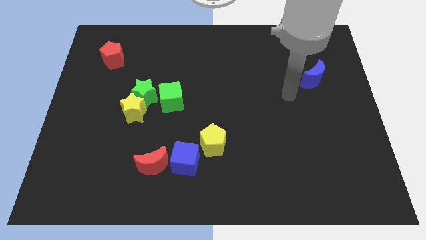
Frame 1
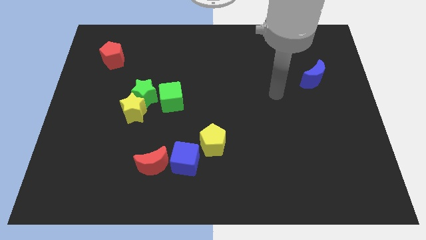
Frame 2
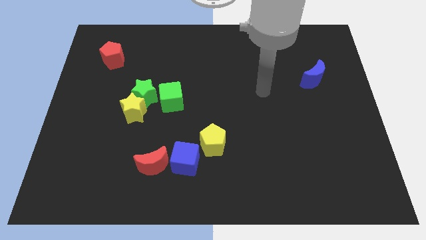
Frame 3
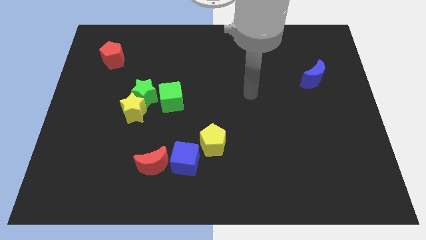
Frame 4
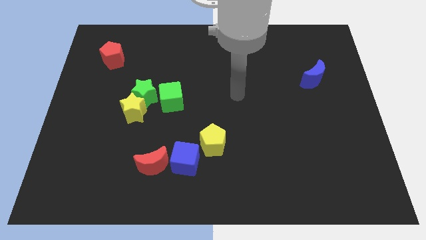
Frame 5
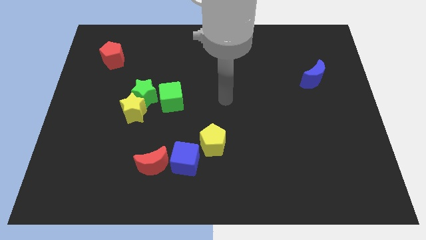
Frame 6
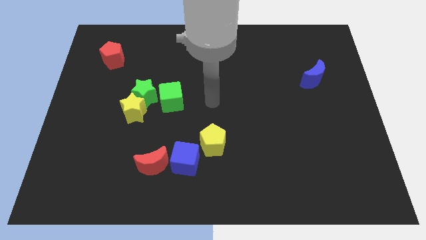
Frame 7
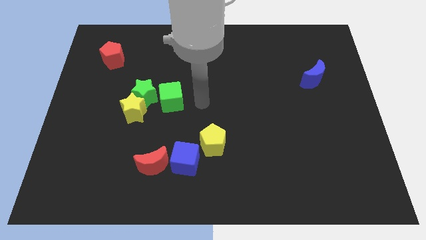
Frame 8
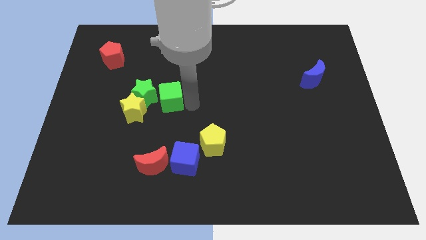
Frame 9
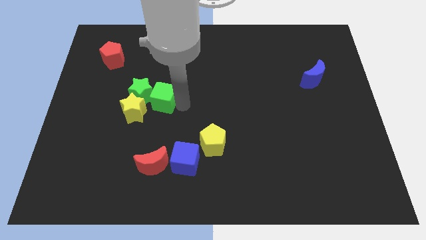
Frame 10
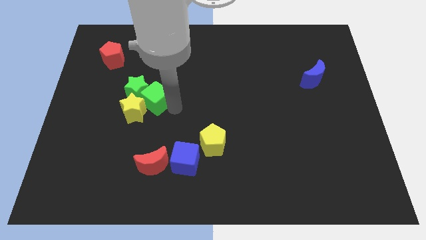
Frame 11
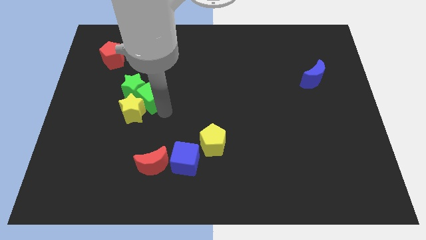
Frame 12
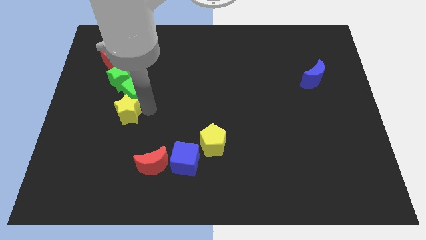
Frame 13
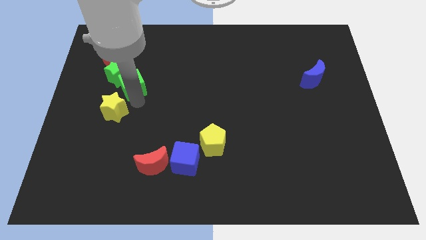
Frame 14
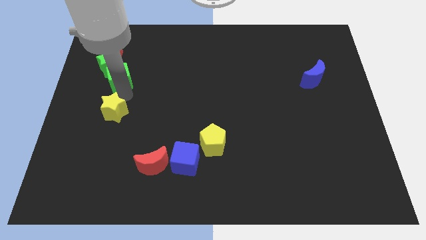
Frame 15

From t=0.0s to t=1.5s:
move the green star away from the yellow star and green cube

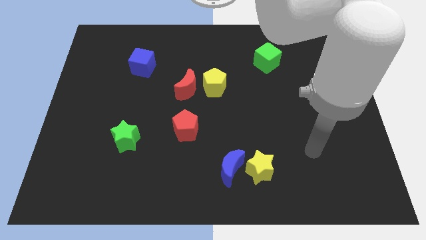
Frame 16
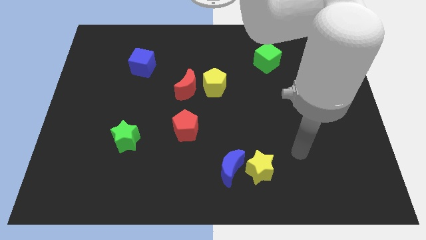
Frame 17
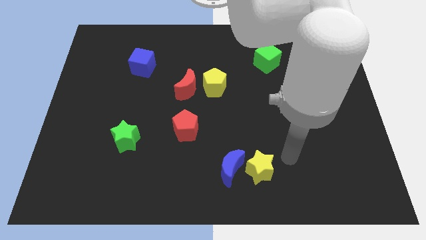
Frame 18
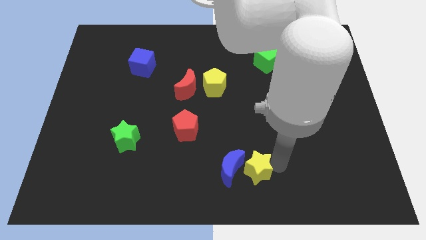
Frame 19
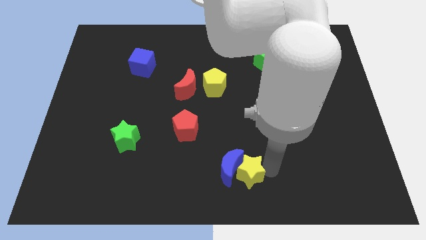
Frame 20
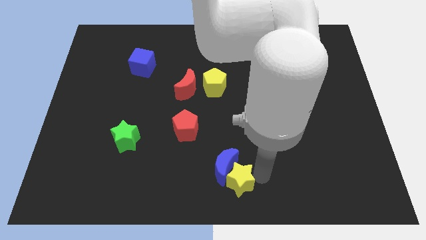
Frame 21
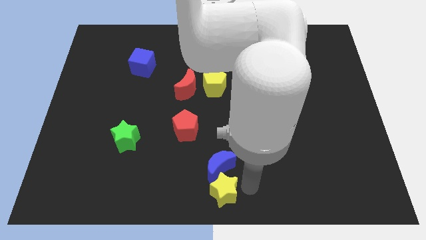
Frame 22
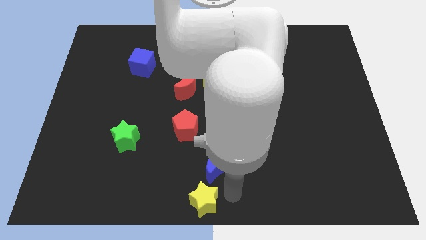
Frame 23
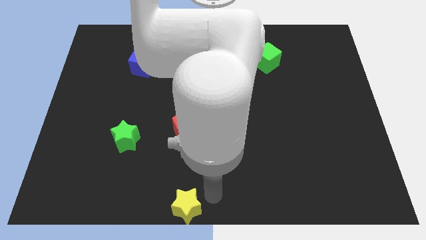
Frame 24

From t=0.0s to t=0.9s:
pull the blue moon apart from the yellow star

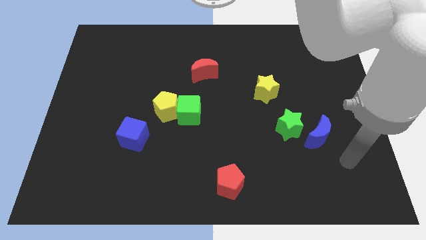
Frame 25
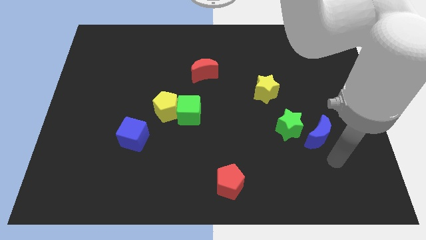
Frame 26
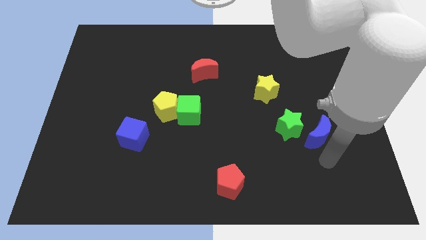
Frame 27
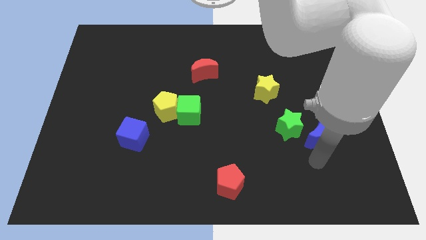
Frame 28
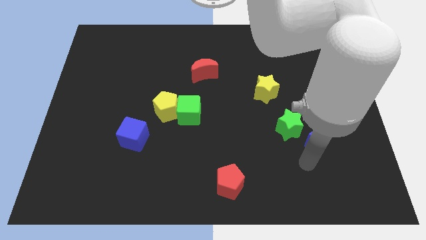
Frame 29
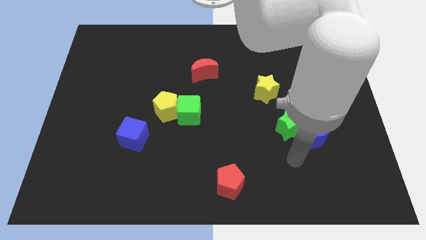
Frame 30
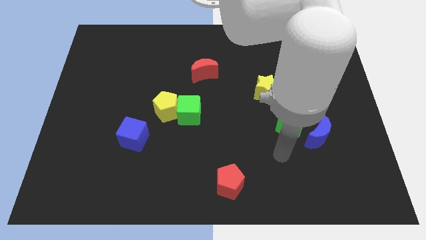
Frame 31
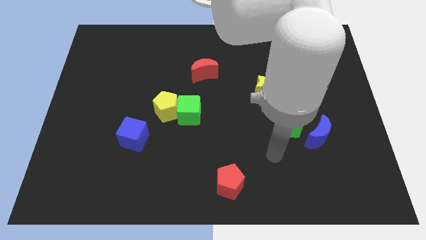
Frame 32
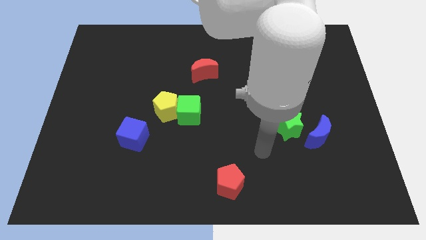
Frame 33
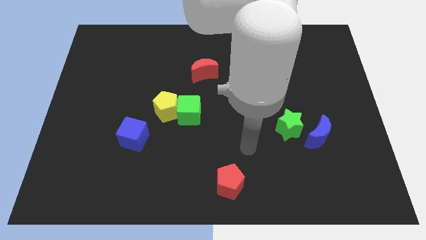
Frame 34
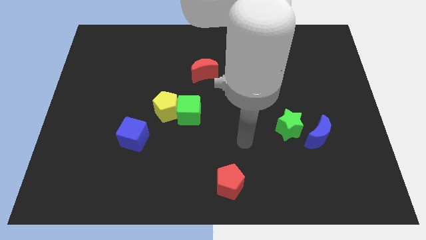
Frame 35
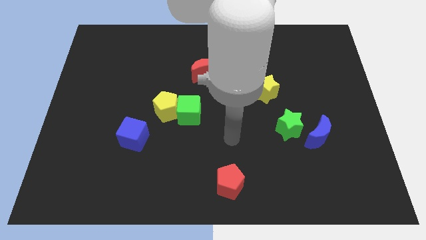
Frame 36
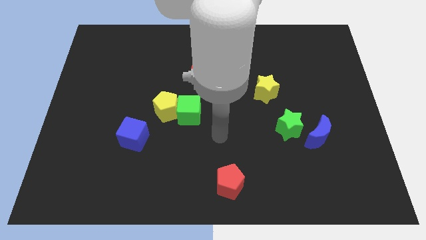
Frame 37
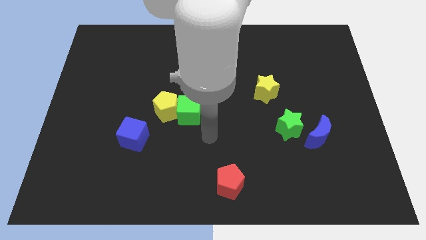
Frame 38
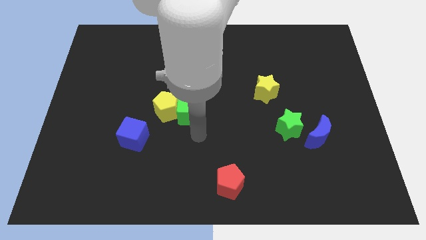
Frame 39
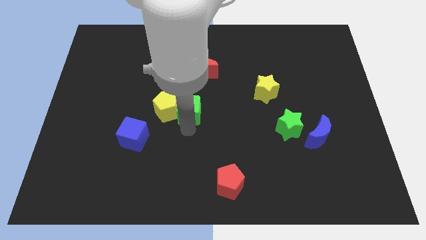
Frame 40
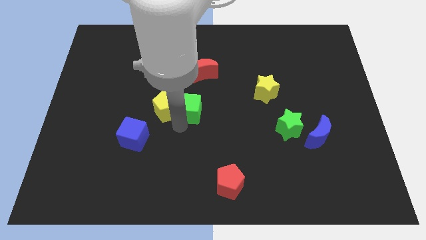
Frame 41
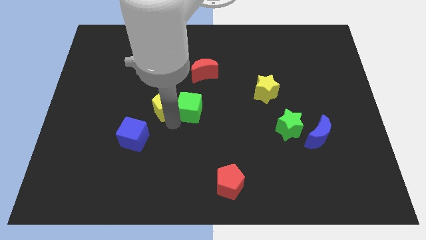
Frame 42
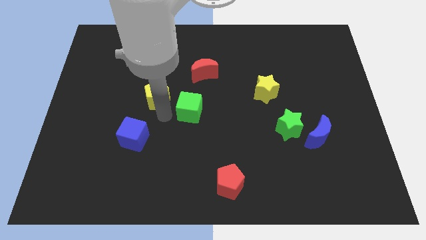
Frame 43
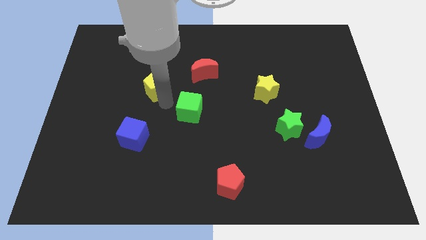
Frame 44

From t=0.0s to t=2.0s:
separate the green cube from the yellow pentagon

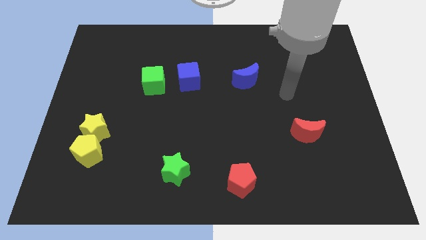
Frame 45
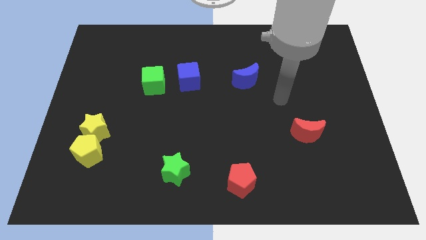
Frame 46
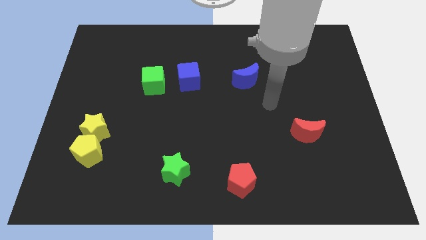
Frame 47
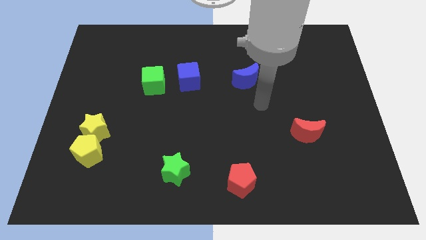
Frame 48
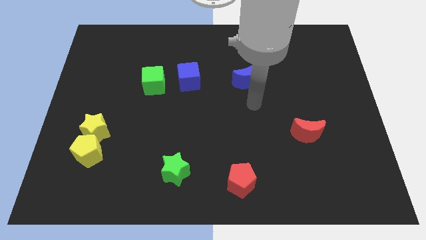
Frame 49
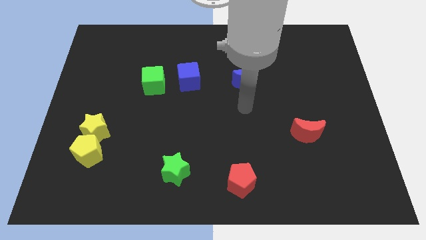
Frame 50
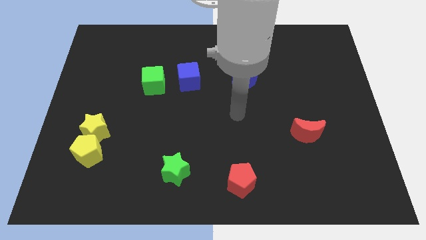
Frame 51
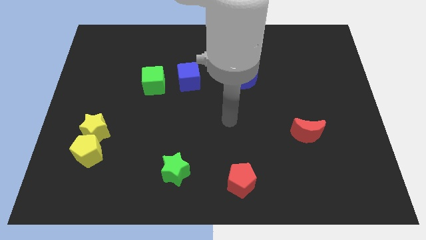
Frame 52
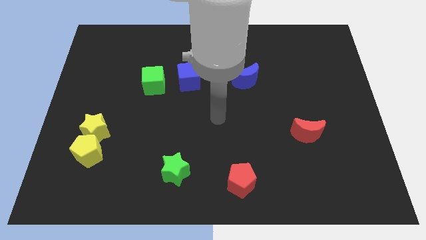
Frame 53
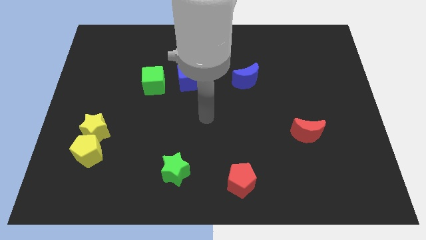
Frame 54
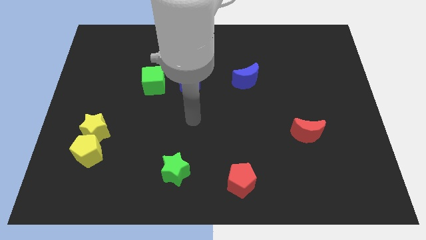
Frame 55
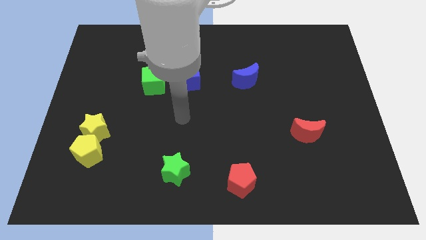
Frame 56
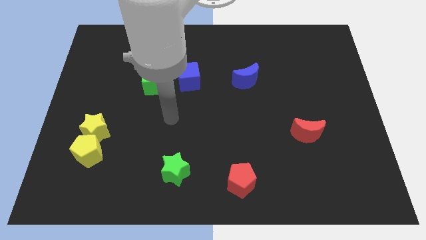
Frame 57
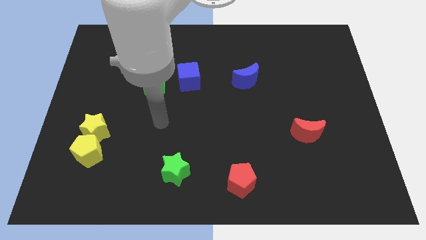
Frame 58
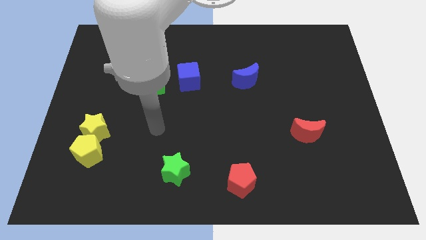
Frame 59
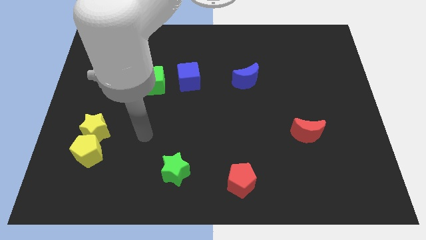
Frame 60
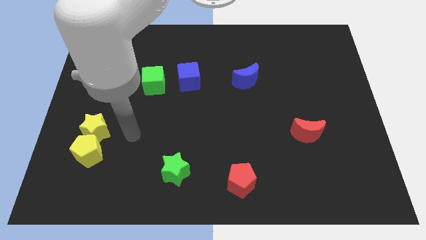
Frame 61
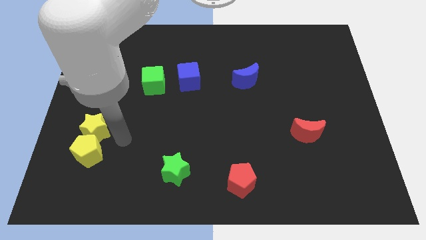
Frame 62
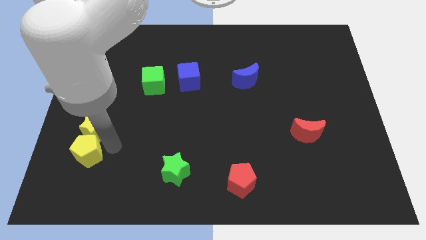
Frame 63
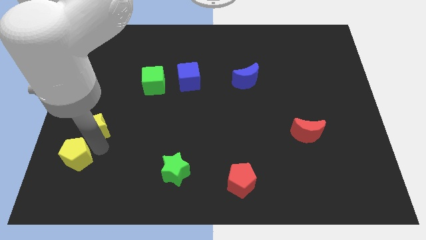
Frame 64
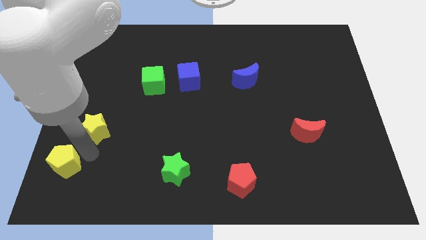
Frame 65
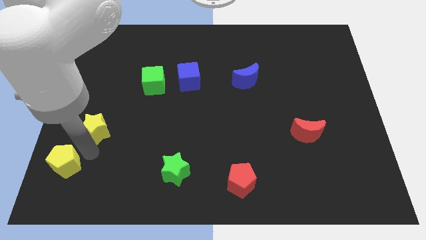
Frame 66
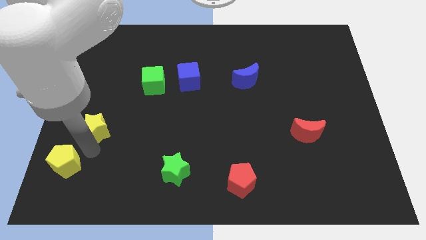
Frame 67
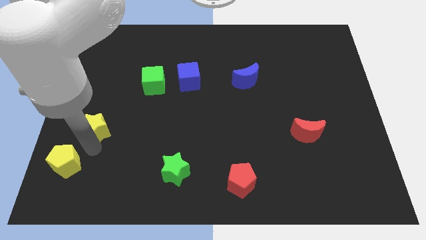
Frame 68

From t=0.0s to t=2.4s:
pull the yellow star apart from the yellow pentagon

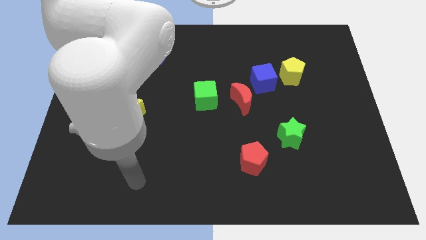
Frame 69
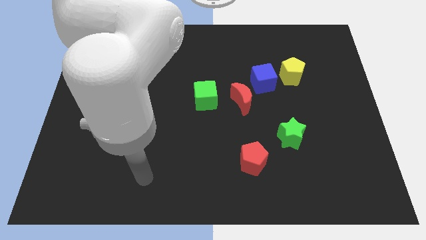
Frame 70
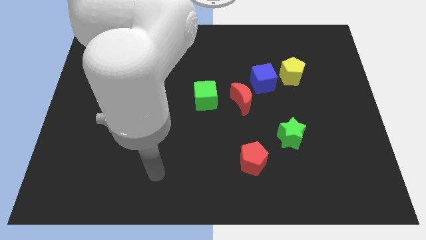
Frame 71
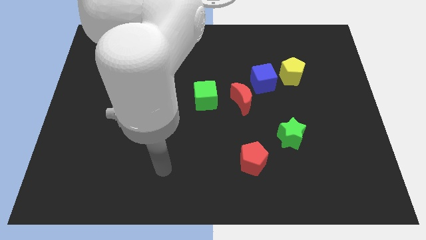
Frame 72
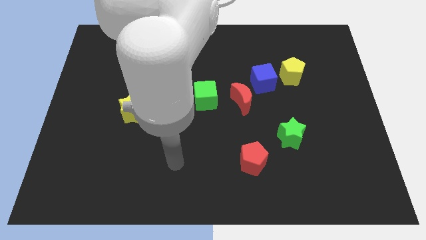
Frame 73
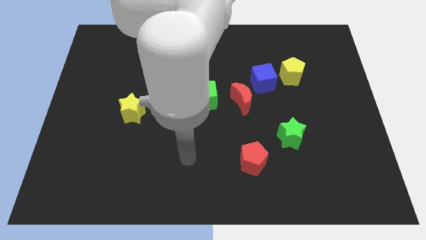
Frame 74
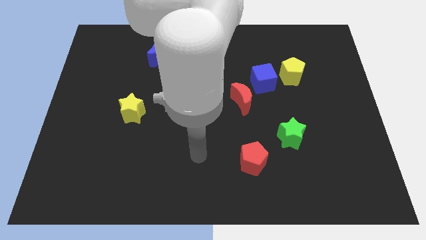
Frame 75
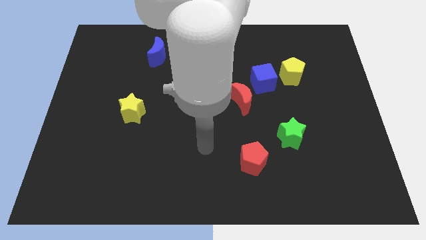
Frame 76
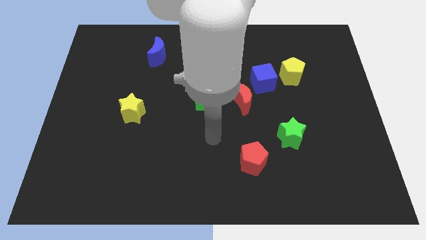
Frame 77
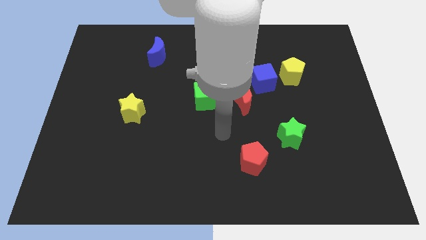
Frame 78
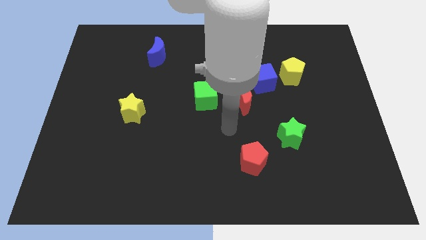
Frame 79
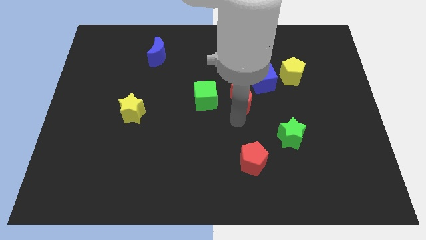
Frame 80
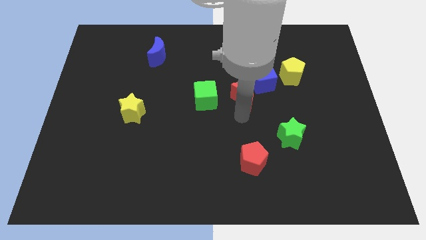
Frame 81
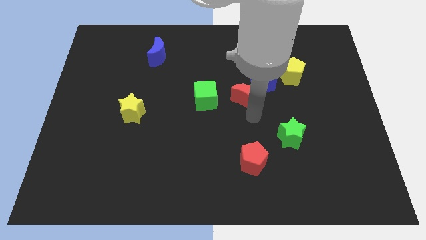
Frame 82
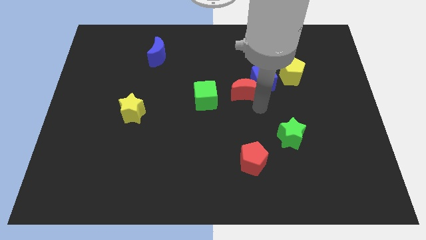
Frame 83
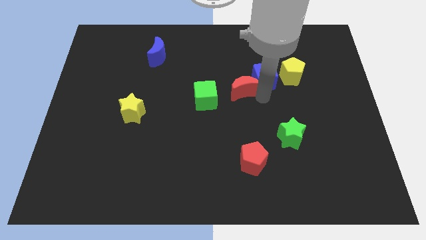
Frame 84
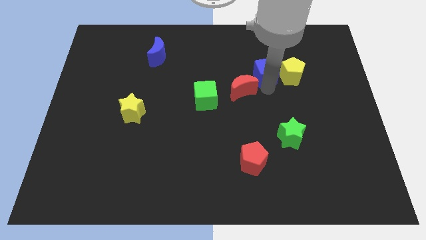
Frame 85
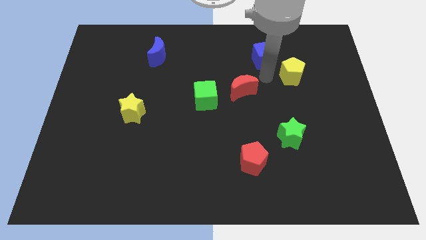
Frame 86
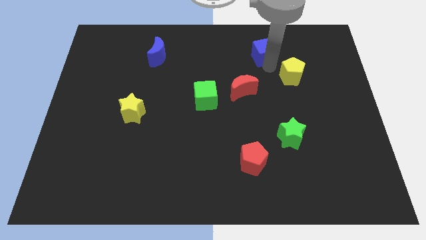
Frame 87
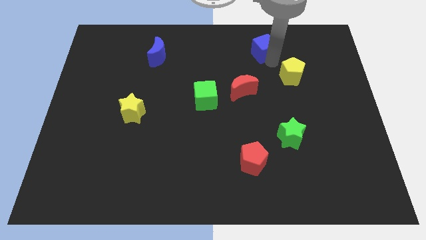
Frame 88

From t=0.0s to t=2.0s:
separate the yellow pentagon from the blue cube

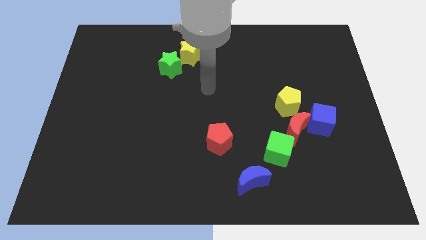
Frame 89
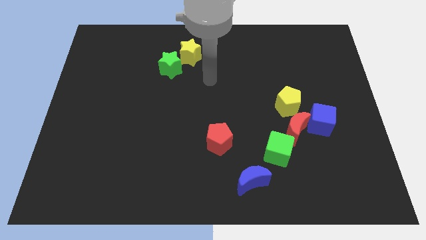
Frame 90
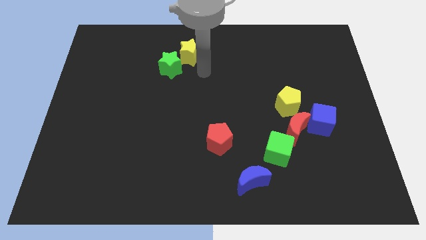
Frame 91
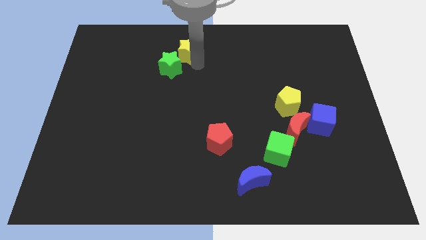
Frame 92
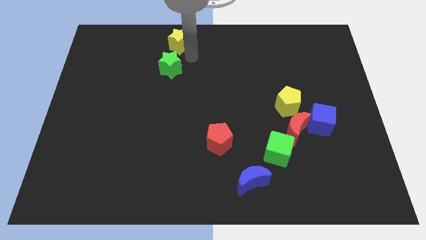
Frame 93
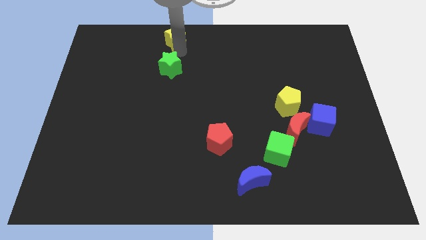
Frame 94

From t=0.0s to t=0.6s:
move the green star away from the yellow star
